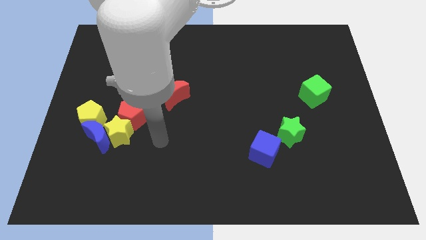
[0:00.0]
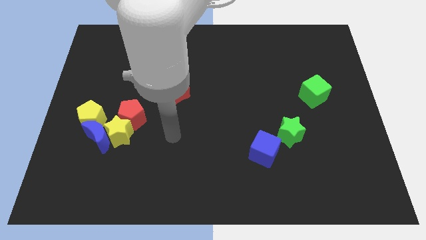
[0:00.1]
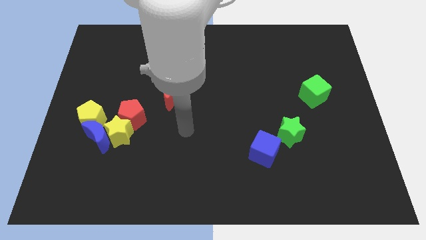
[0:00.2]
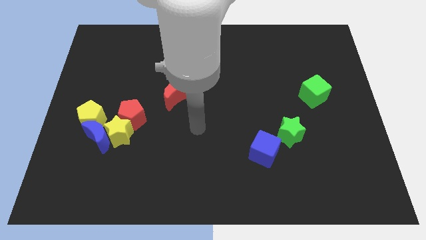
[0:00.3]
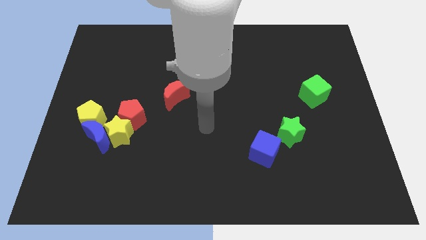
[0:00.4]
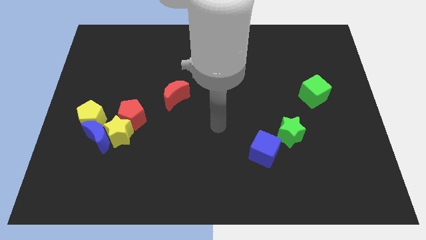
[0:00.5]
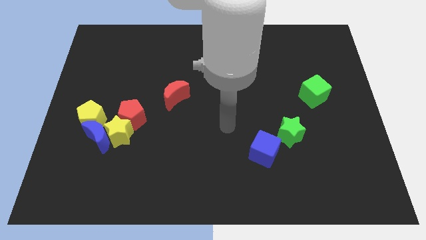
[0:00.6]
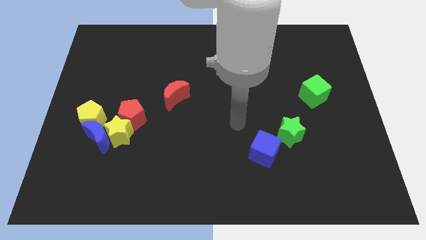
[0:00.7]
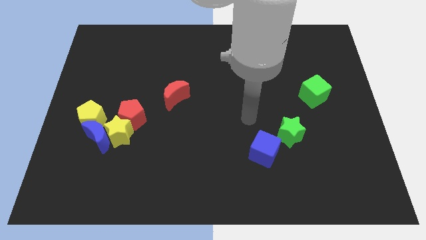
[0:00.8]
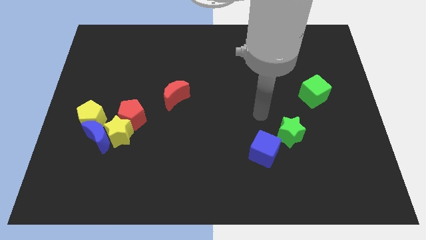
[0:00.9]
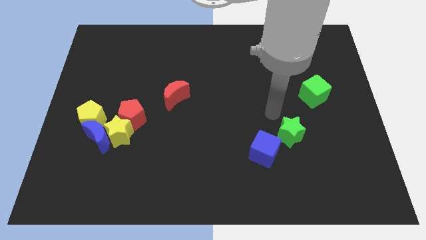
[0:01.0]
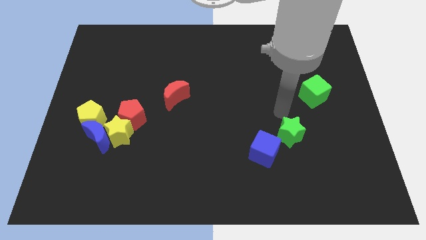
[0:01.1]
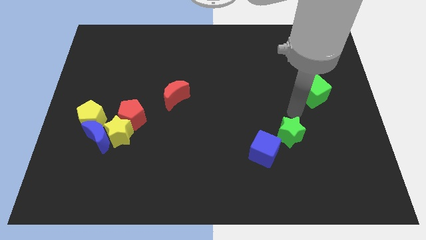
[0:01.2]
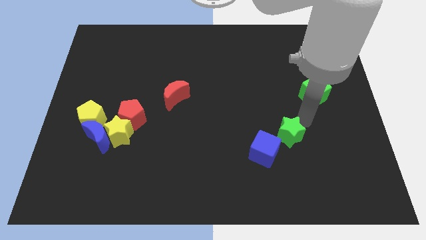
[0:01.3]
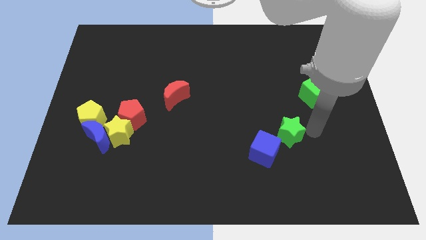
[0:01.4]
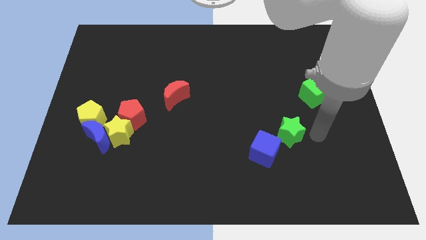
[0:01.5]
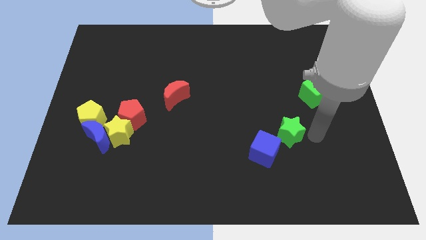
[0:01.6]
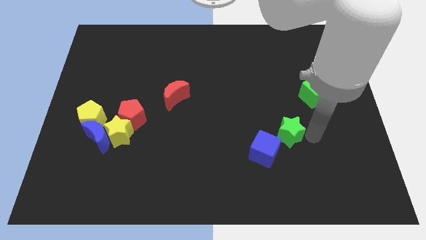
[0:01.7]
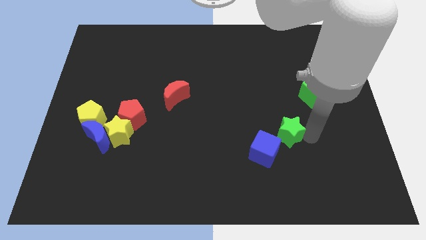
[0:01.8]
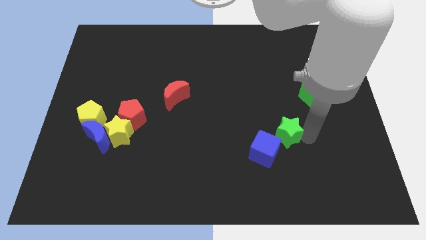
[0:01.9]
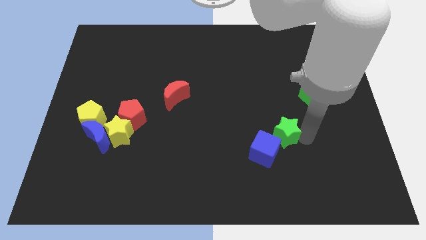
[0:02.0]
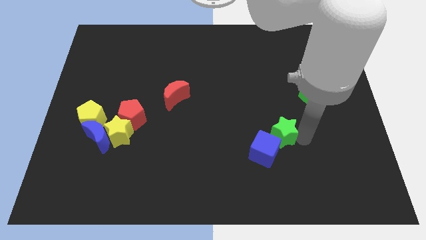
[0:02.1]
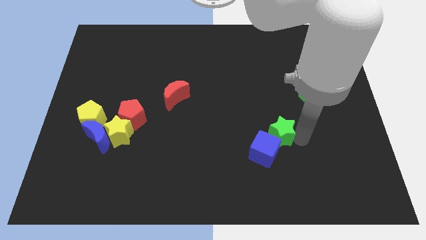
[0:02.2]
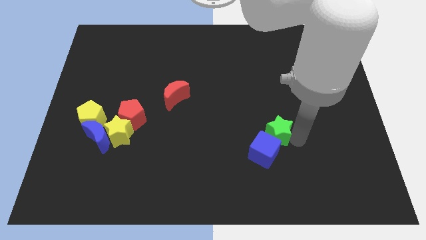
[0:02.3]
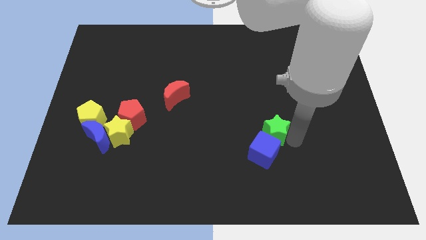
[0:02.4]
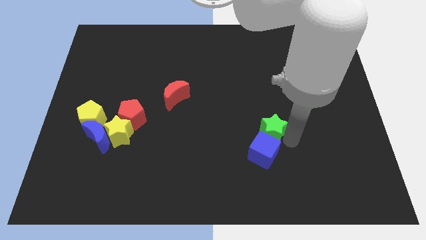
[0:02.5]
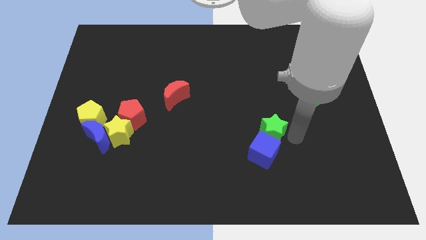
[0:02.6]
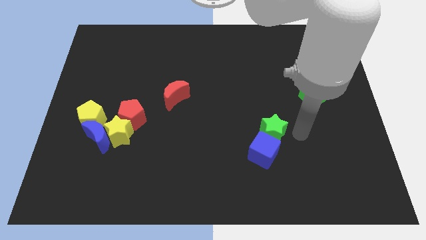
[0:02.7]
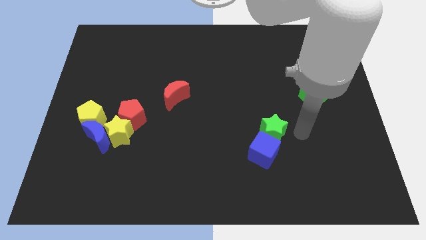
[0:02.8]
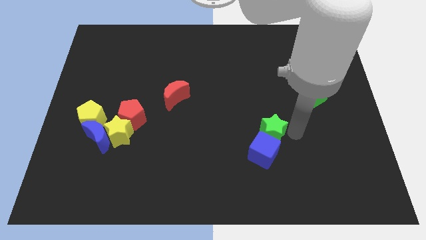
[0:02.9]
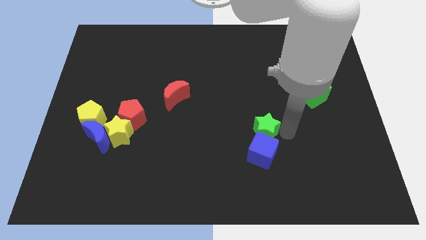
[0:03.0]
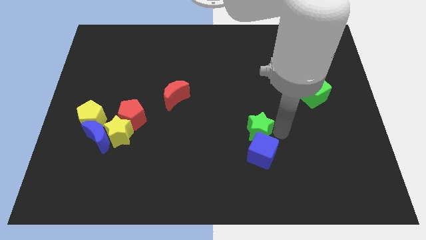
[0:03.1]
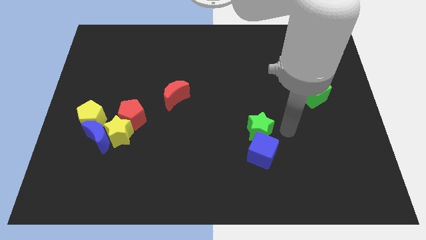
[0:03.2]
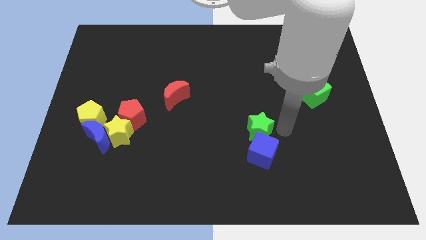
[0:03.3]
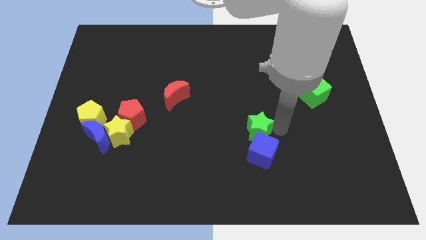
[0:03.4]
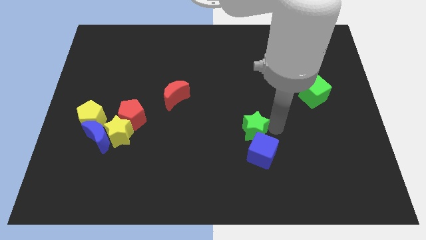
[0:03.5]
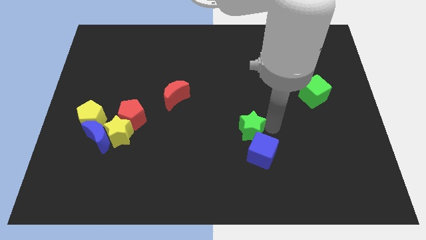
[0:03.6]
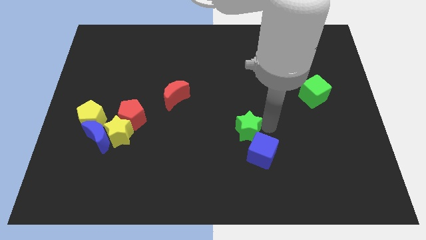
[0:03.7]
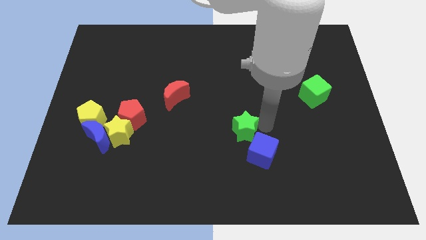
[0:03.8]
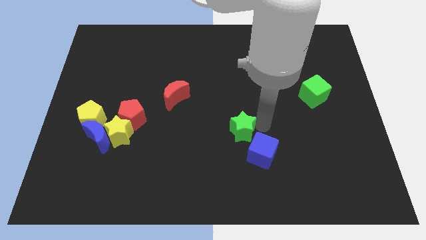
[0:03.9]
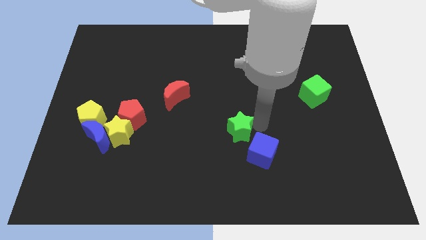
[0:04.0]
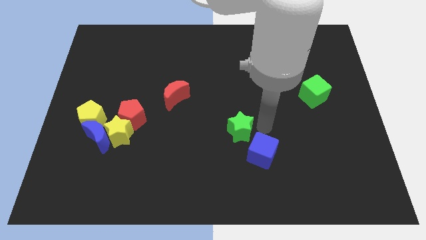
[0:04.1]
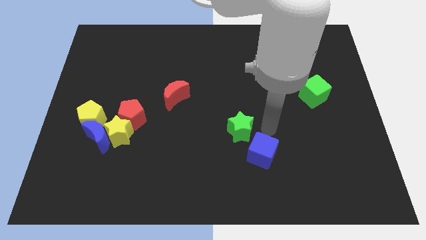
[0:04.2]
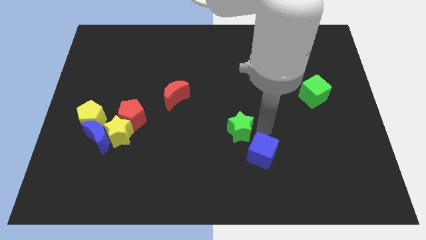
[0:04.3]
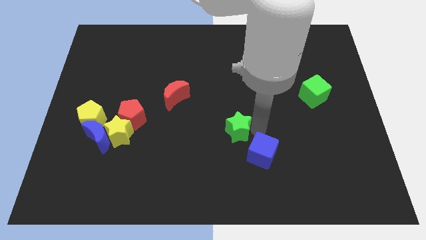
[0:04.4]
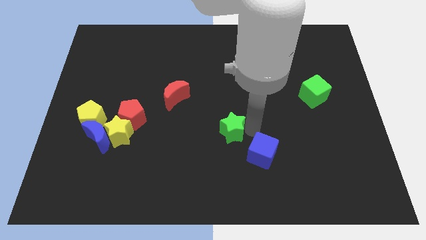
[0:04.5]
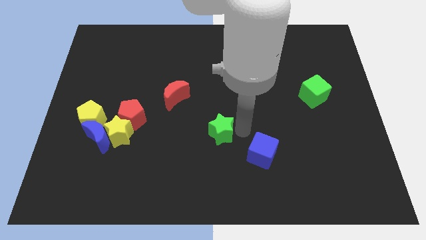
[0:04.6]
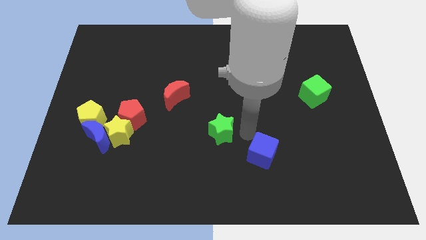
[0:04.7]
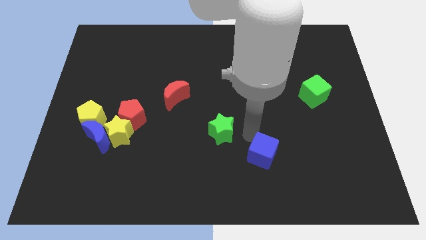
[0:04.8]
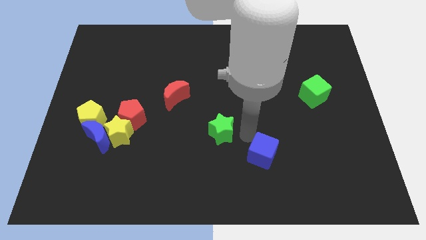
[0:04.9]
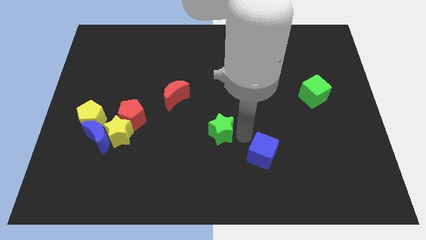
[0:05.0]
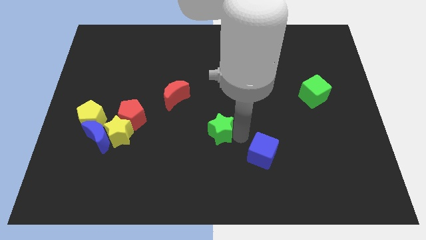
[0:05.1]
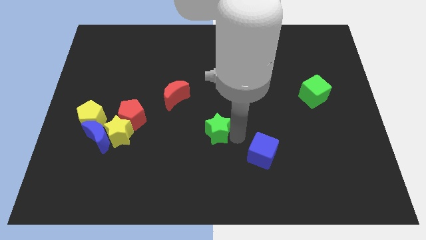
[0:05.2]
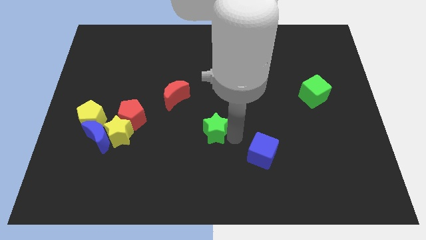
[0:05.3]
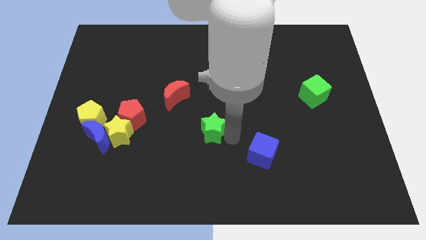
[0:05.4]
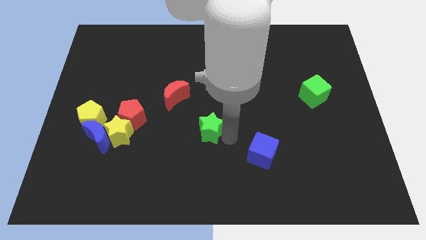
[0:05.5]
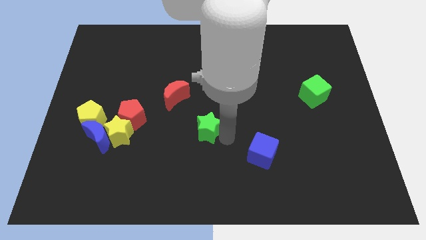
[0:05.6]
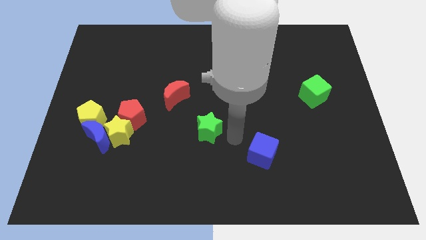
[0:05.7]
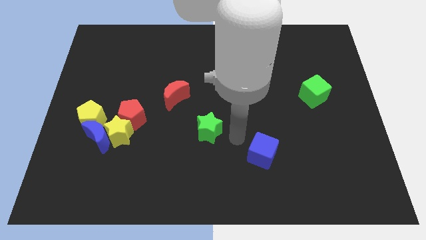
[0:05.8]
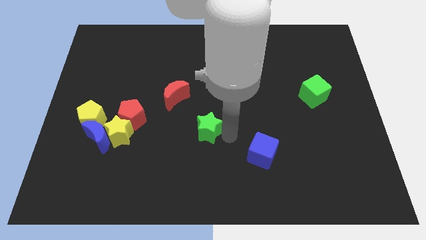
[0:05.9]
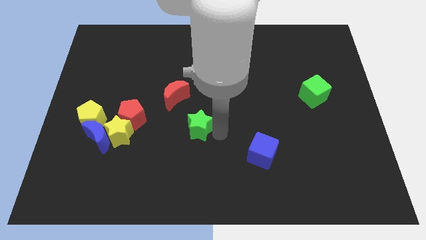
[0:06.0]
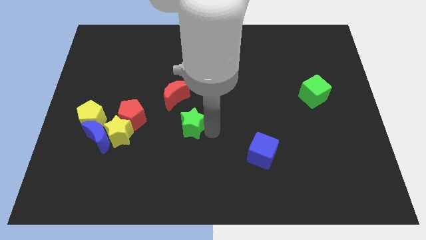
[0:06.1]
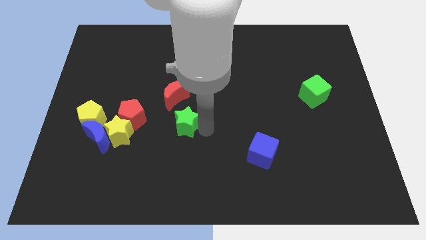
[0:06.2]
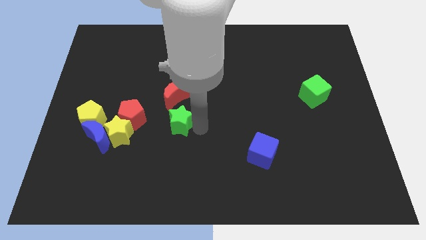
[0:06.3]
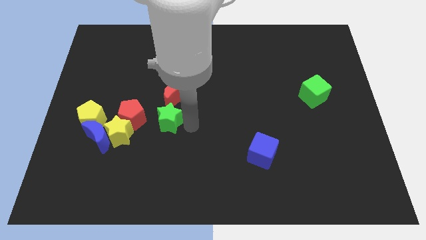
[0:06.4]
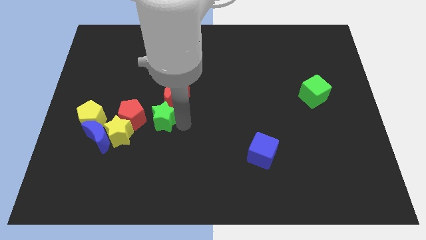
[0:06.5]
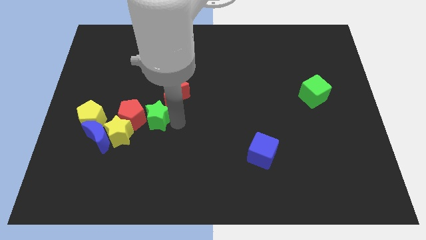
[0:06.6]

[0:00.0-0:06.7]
push the green star next to the red pentagon

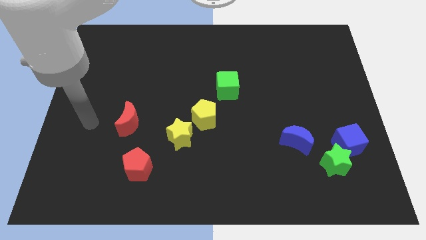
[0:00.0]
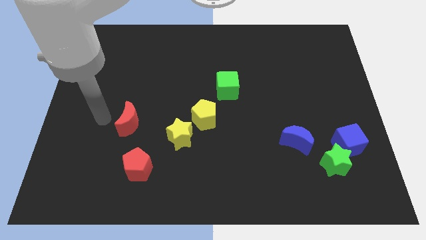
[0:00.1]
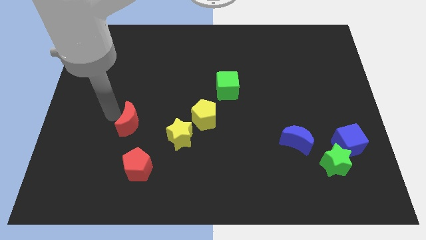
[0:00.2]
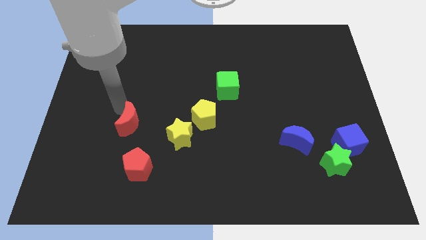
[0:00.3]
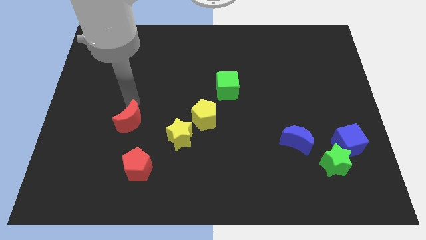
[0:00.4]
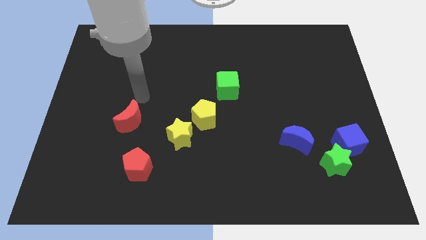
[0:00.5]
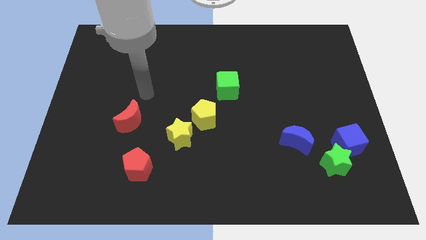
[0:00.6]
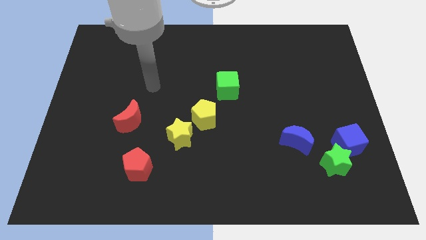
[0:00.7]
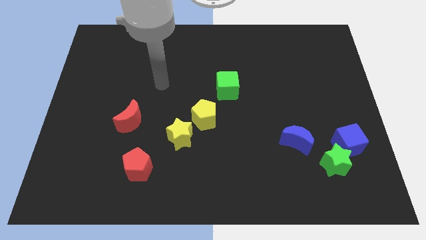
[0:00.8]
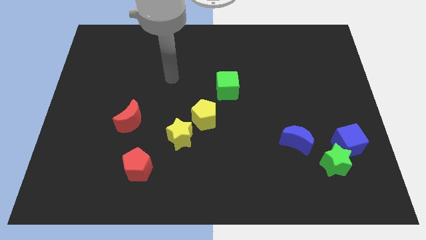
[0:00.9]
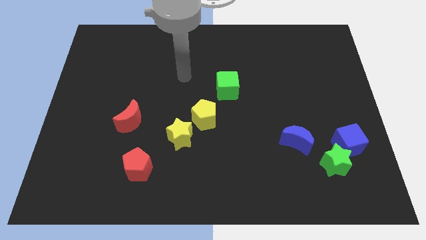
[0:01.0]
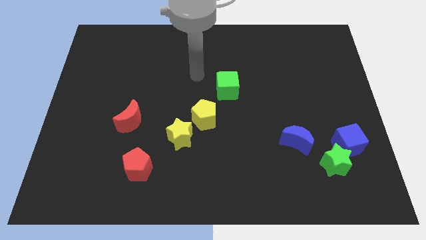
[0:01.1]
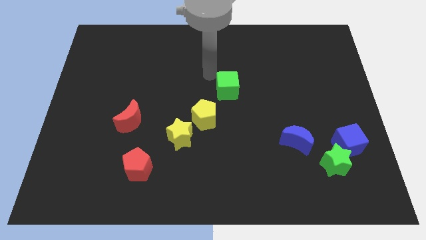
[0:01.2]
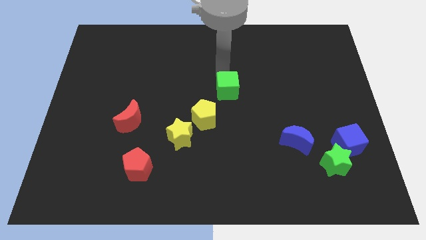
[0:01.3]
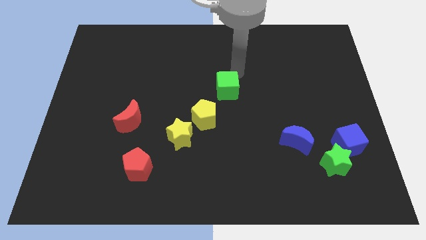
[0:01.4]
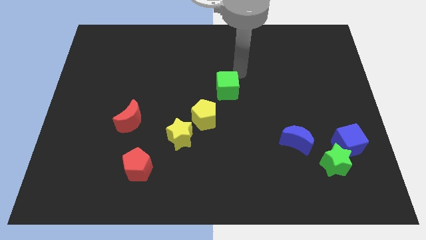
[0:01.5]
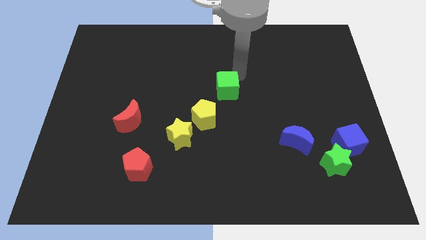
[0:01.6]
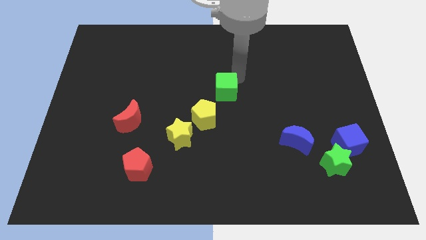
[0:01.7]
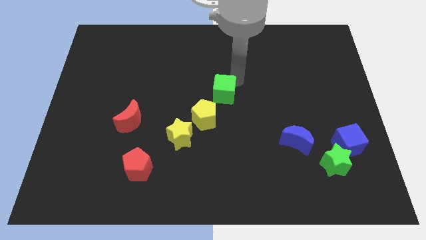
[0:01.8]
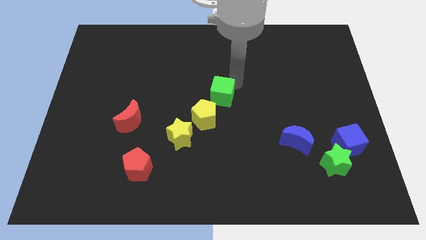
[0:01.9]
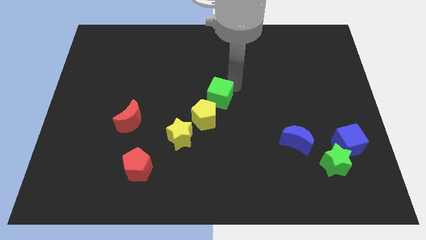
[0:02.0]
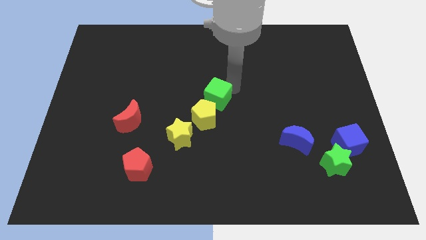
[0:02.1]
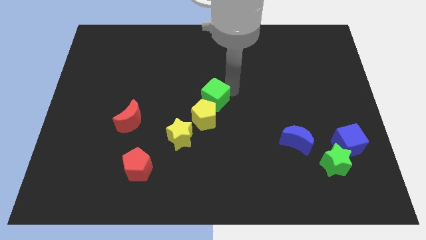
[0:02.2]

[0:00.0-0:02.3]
move the green cube to the yellow pentagon
